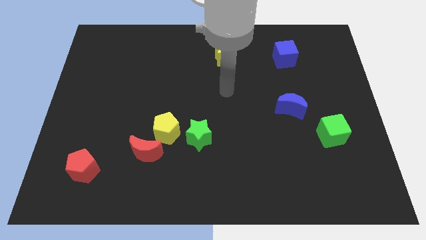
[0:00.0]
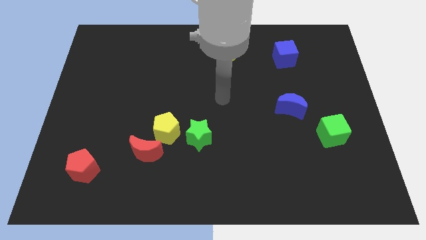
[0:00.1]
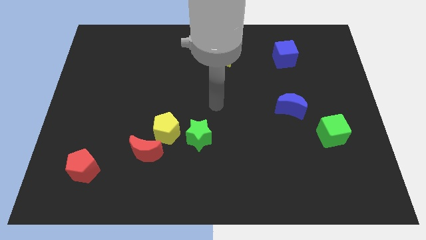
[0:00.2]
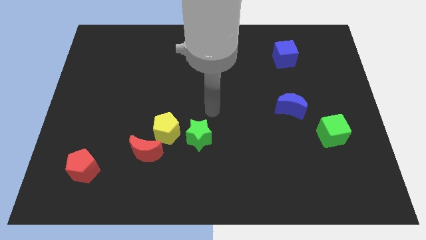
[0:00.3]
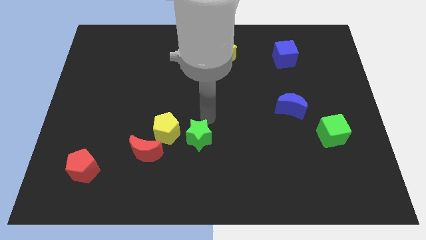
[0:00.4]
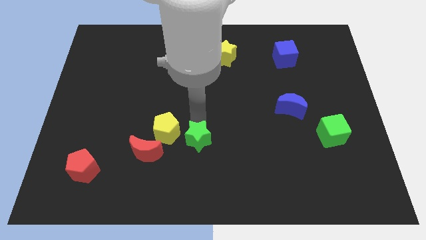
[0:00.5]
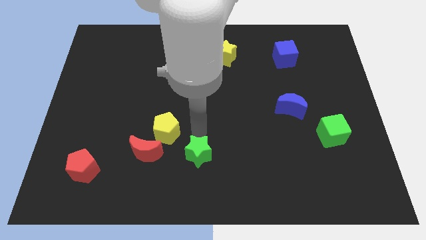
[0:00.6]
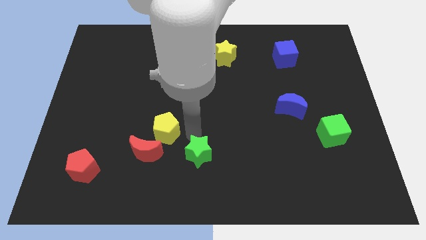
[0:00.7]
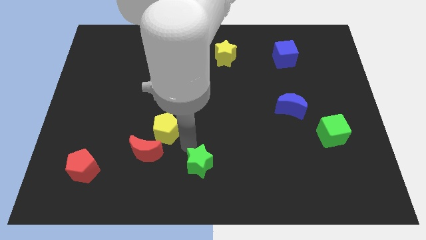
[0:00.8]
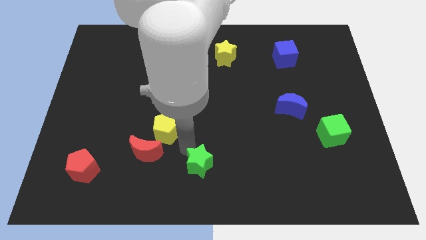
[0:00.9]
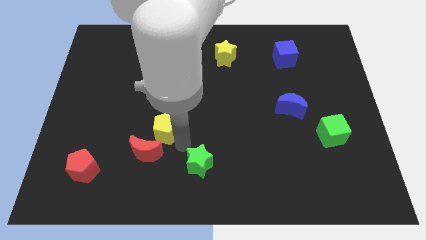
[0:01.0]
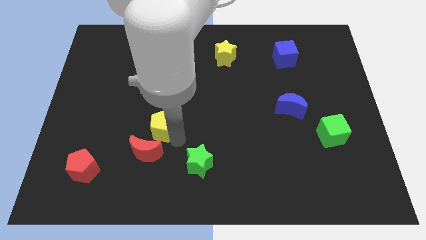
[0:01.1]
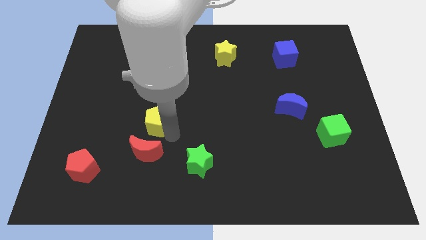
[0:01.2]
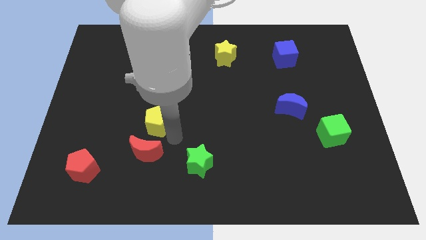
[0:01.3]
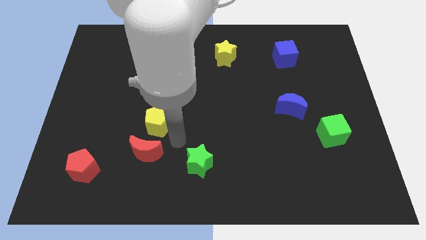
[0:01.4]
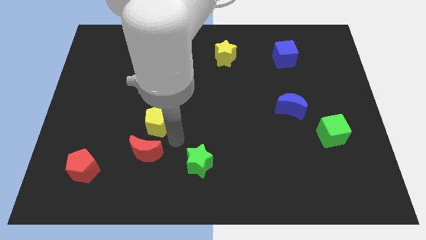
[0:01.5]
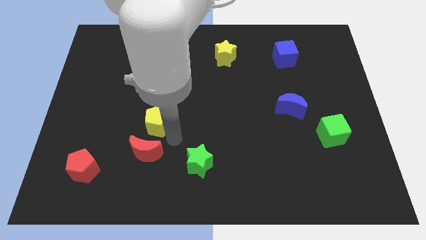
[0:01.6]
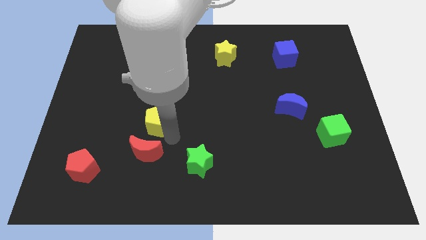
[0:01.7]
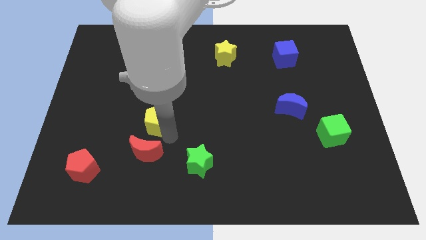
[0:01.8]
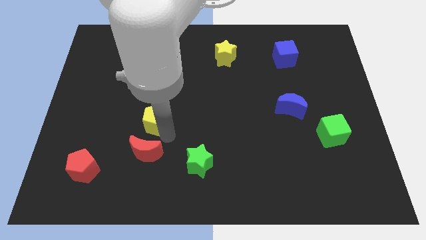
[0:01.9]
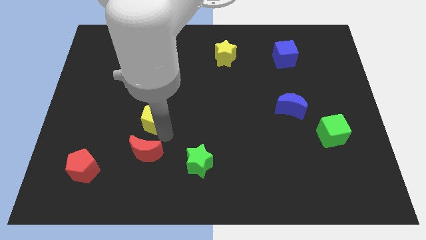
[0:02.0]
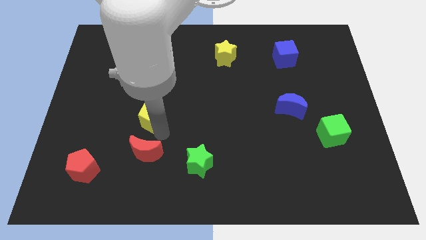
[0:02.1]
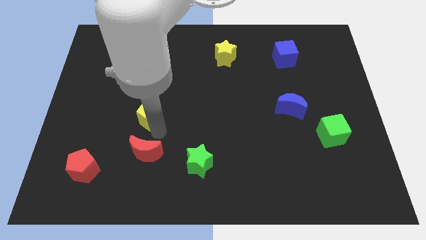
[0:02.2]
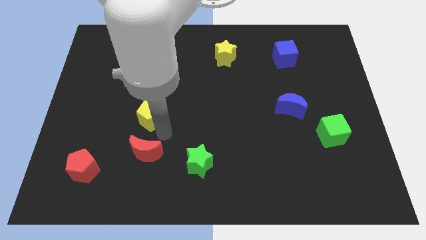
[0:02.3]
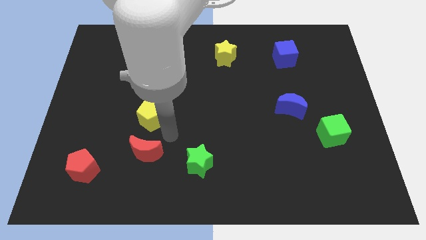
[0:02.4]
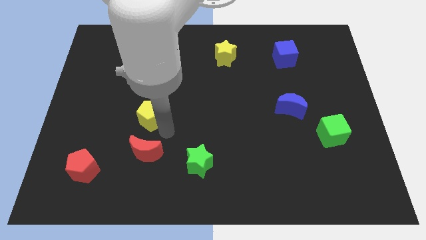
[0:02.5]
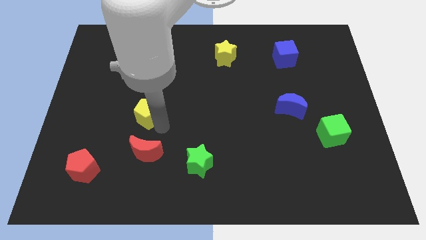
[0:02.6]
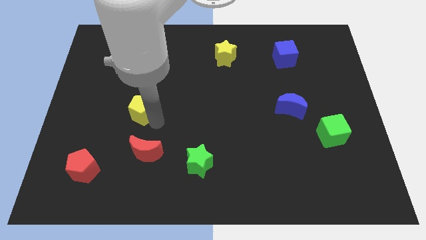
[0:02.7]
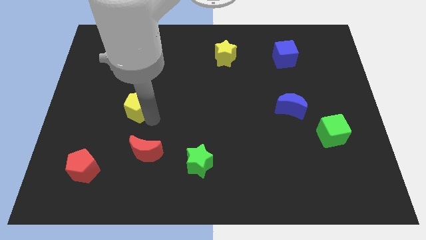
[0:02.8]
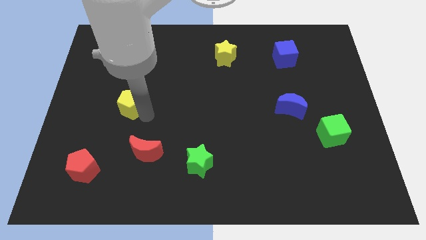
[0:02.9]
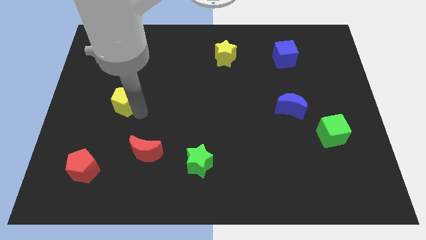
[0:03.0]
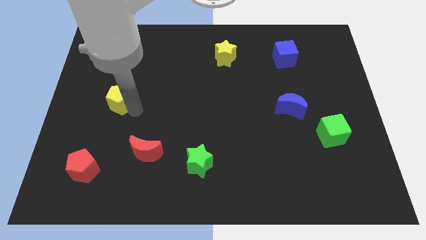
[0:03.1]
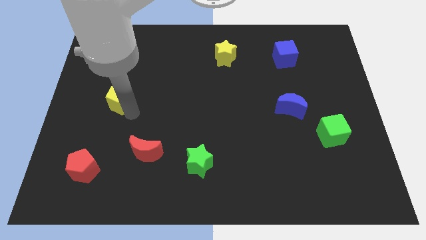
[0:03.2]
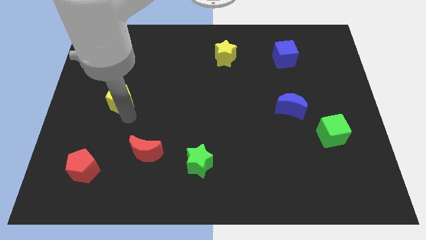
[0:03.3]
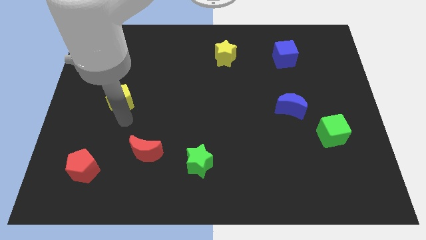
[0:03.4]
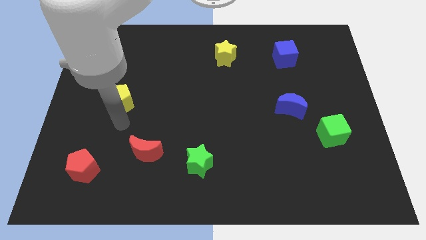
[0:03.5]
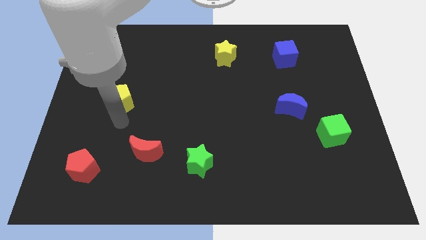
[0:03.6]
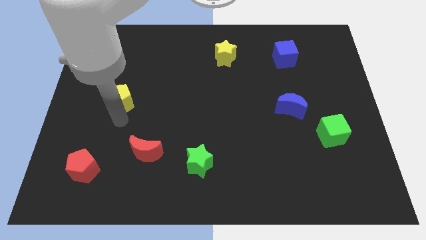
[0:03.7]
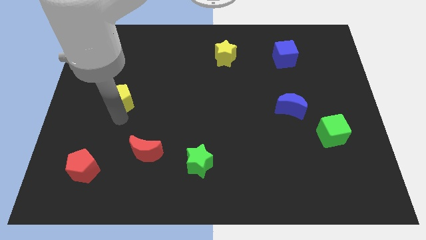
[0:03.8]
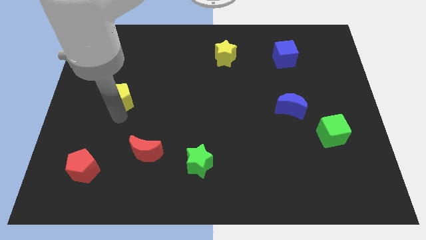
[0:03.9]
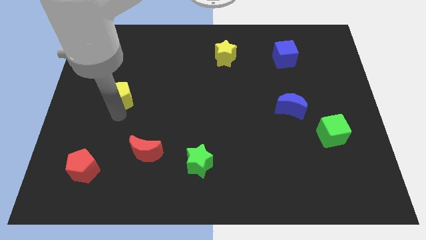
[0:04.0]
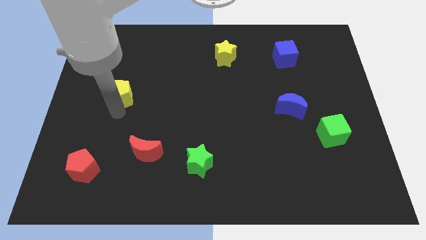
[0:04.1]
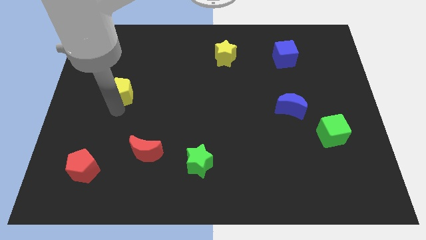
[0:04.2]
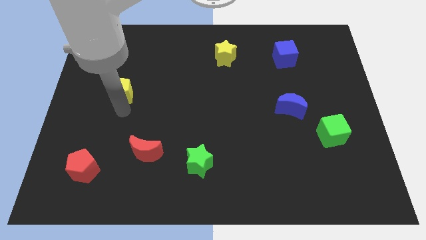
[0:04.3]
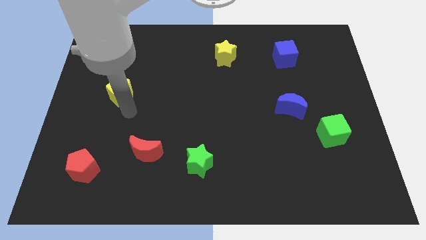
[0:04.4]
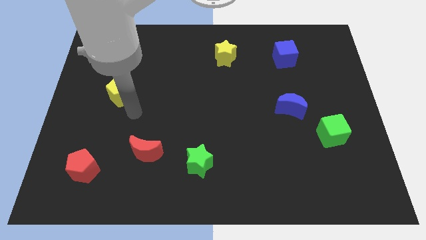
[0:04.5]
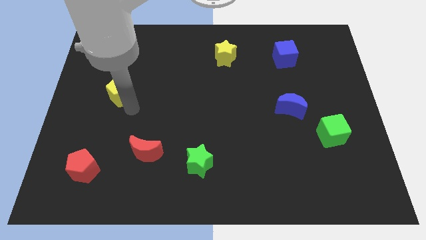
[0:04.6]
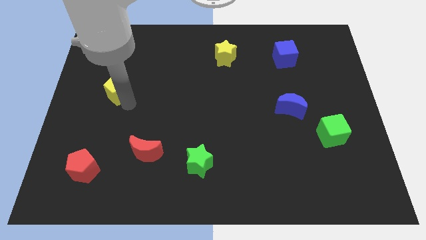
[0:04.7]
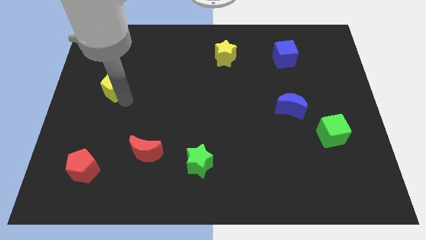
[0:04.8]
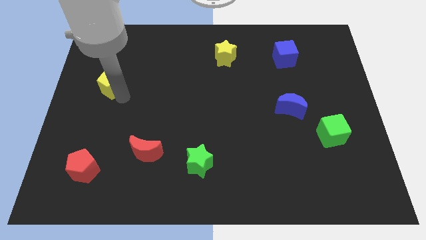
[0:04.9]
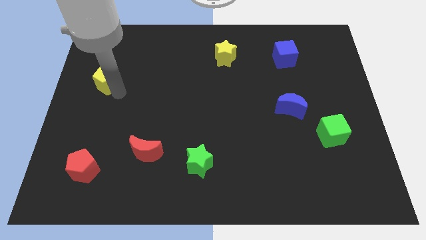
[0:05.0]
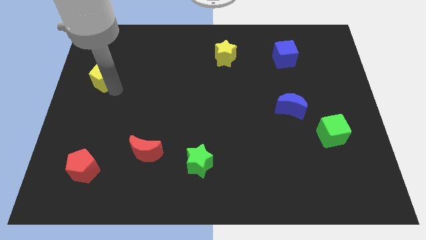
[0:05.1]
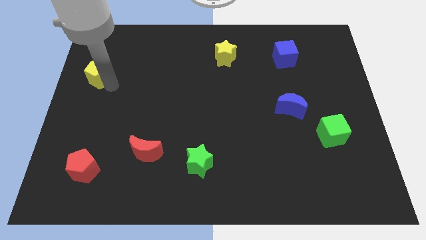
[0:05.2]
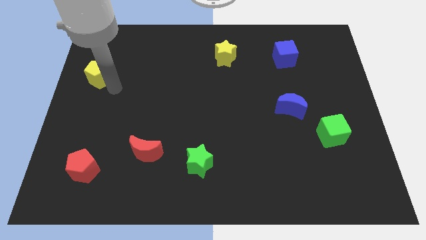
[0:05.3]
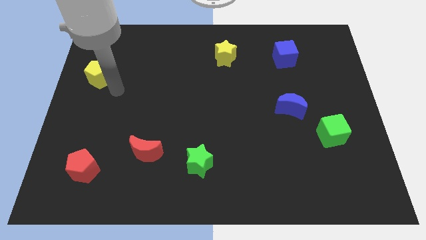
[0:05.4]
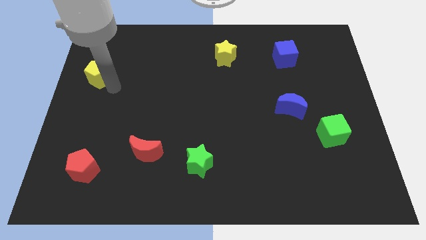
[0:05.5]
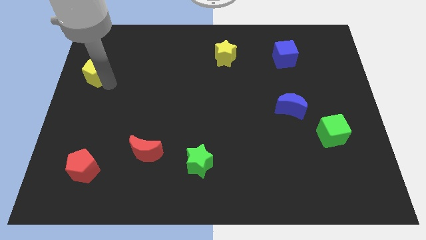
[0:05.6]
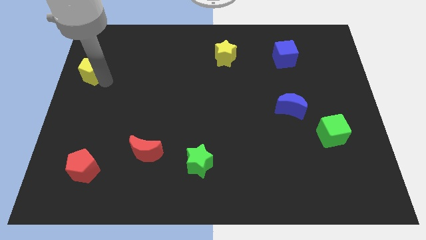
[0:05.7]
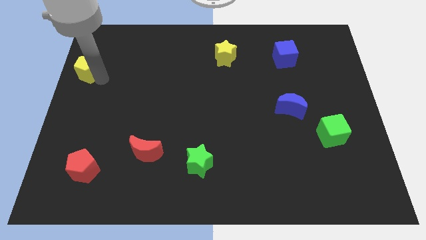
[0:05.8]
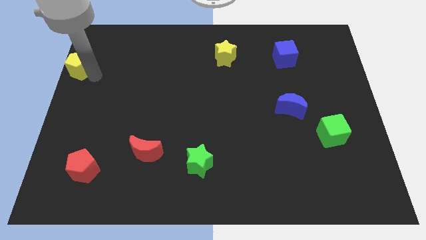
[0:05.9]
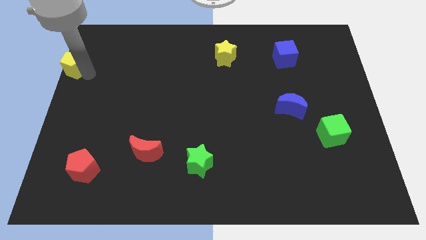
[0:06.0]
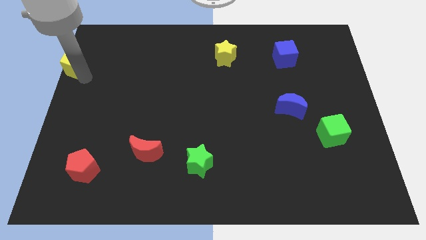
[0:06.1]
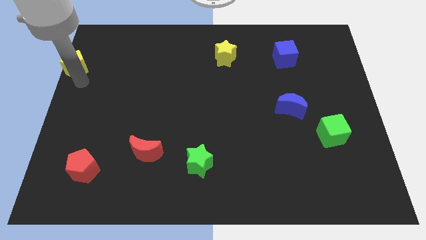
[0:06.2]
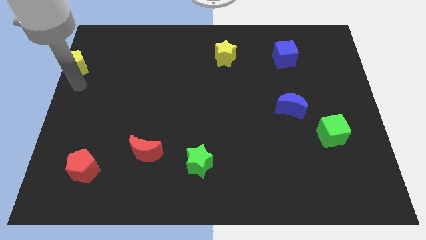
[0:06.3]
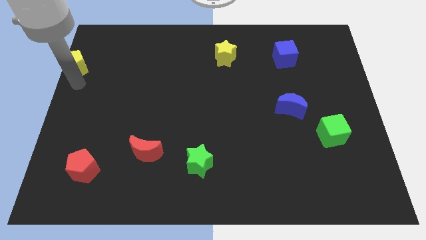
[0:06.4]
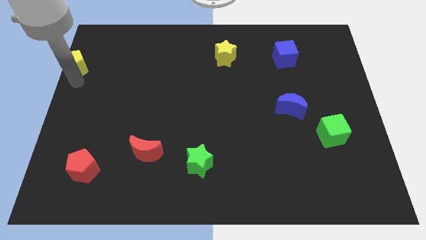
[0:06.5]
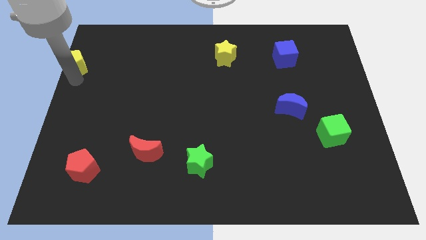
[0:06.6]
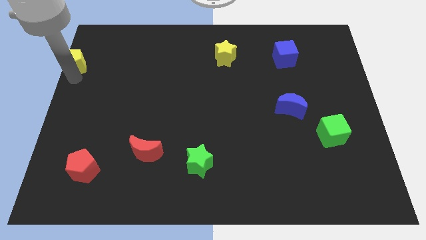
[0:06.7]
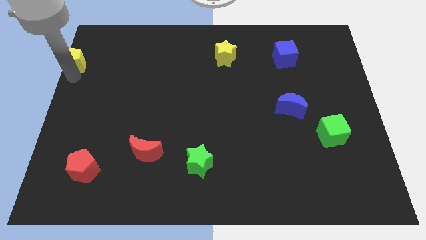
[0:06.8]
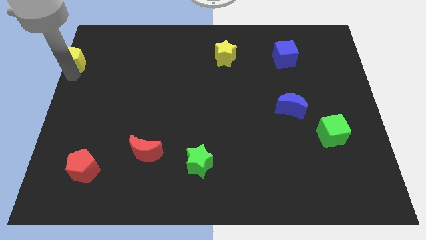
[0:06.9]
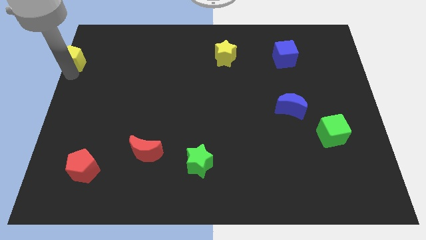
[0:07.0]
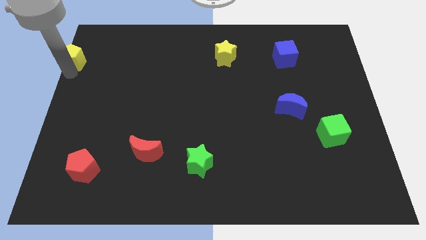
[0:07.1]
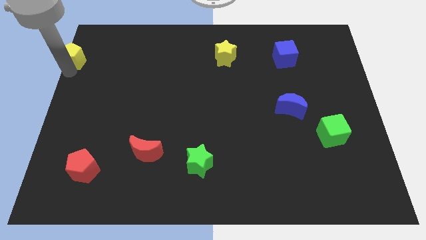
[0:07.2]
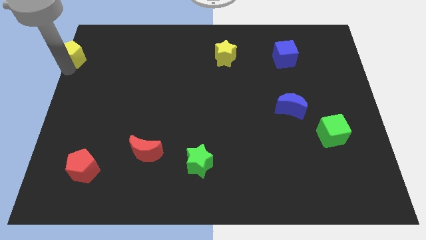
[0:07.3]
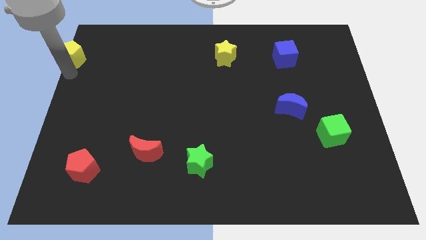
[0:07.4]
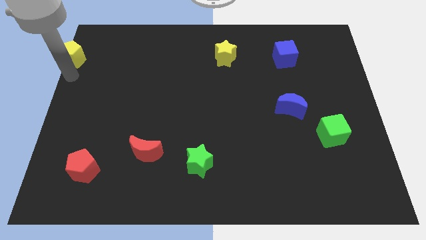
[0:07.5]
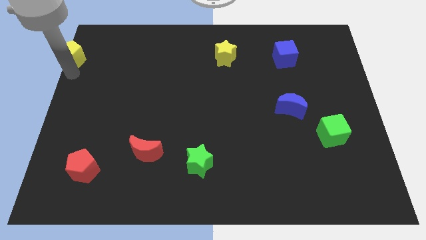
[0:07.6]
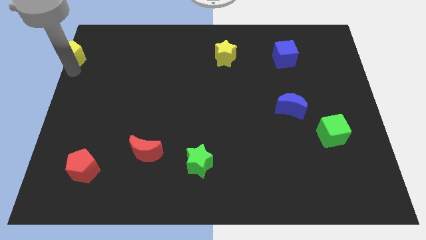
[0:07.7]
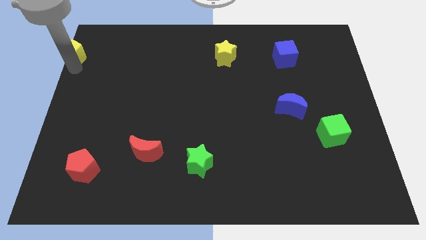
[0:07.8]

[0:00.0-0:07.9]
push the yellow pentagon to the upper left corner
